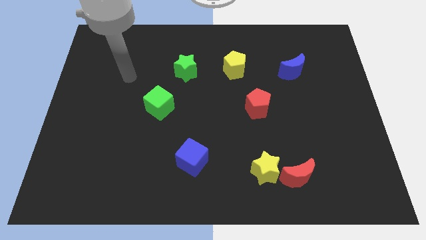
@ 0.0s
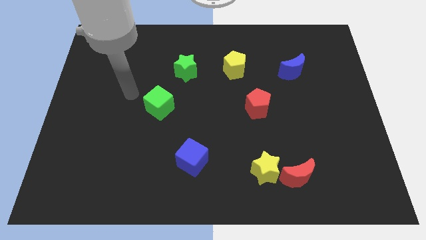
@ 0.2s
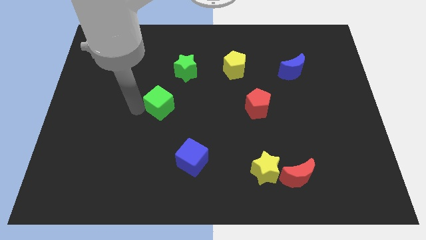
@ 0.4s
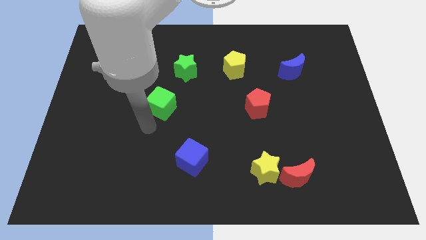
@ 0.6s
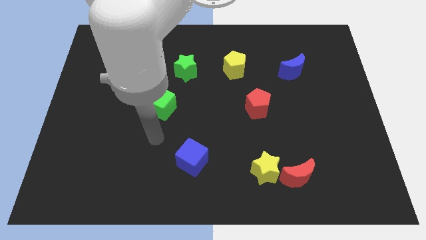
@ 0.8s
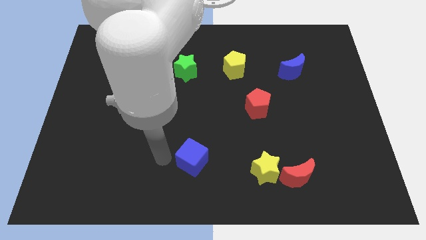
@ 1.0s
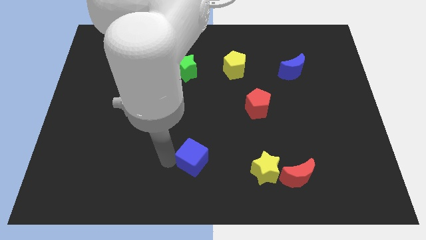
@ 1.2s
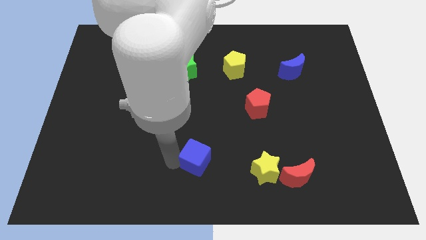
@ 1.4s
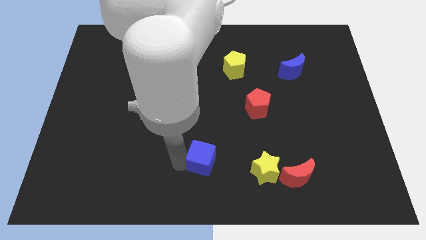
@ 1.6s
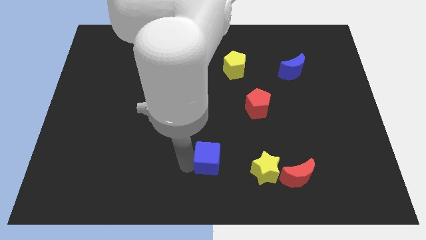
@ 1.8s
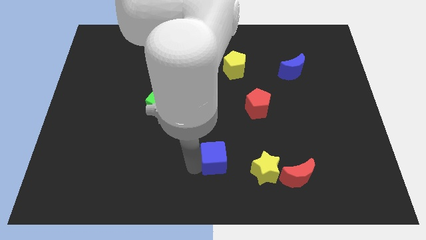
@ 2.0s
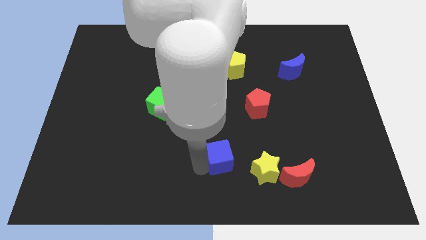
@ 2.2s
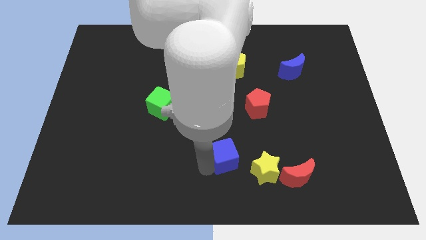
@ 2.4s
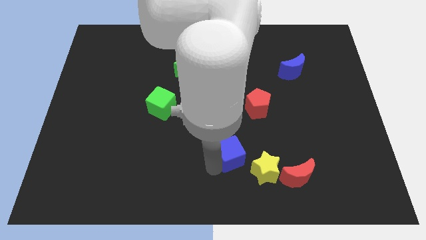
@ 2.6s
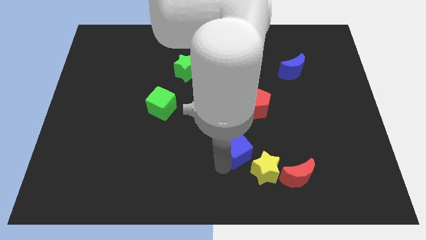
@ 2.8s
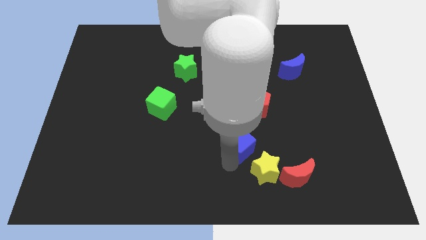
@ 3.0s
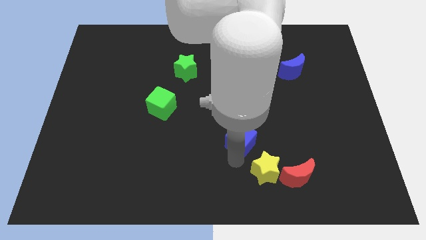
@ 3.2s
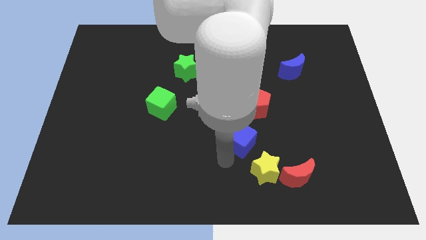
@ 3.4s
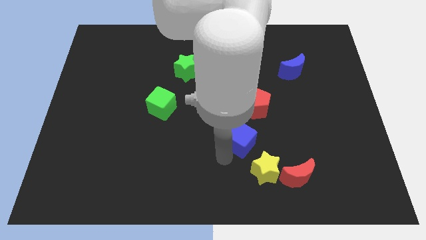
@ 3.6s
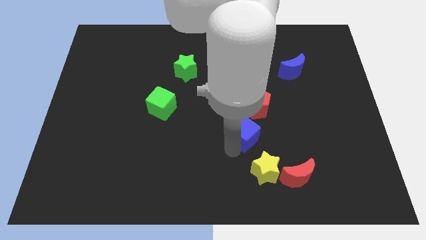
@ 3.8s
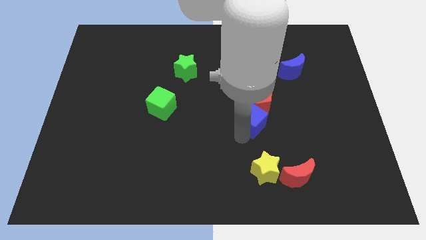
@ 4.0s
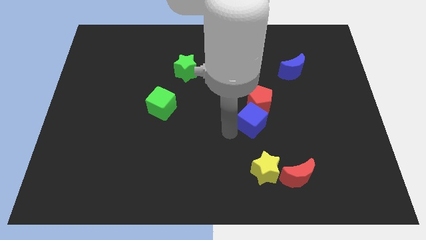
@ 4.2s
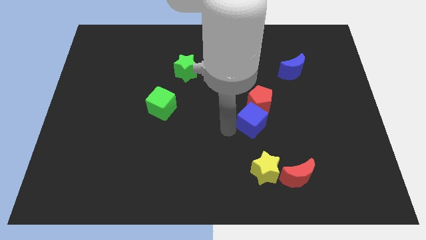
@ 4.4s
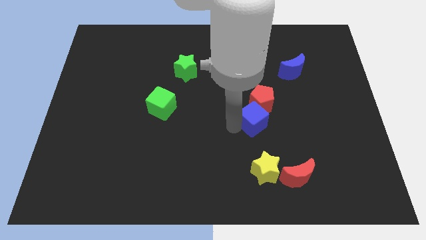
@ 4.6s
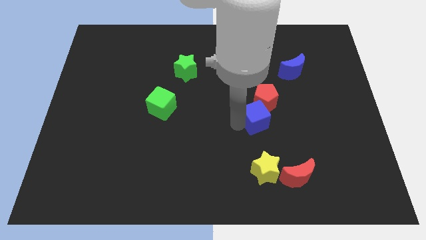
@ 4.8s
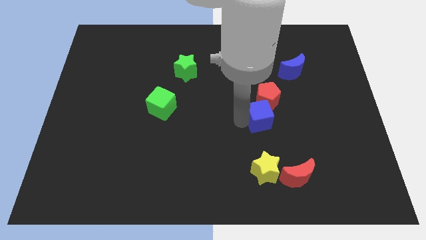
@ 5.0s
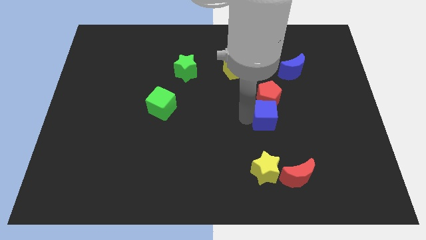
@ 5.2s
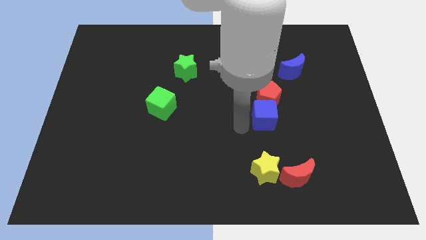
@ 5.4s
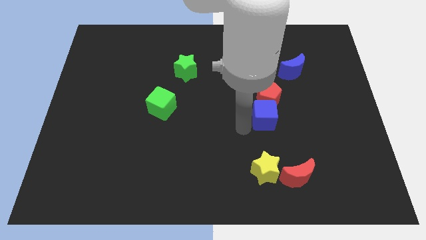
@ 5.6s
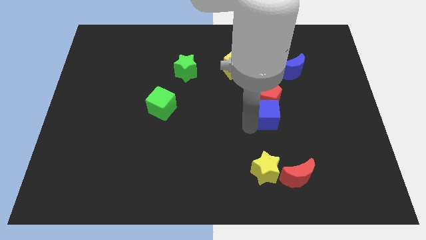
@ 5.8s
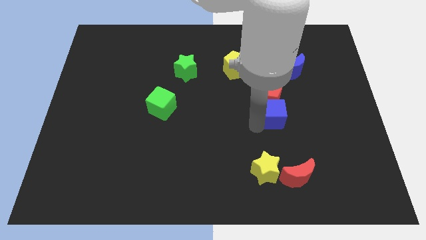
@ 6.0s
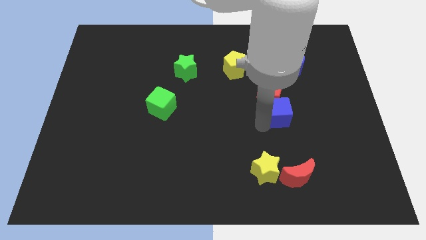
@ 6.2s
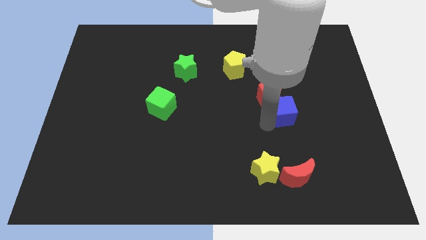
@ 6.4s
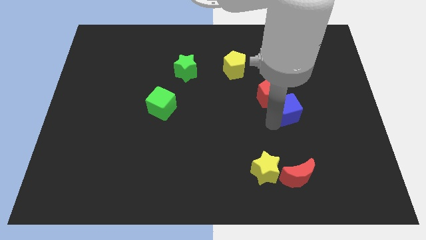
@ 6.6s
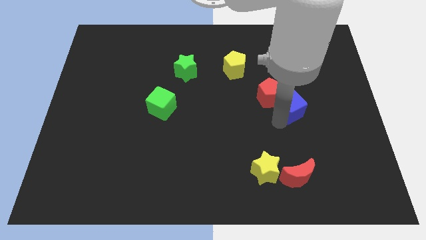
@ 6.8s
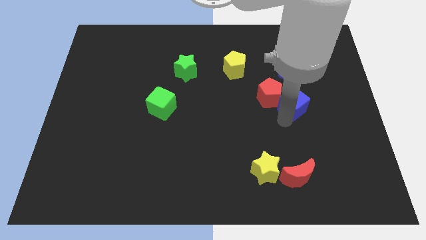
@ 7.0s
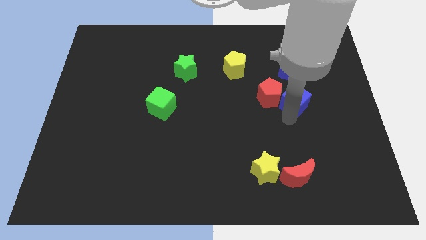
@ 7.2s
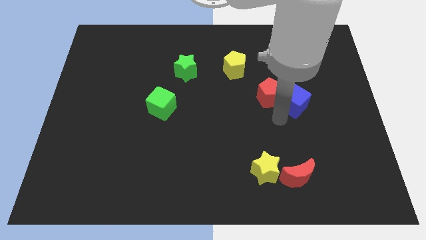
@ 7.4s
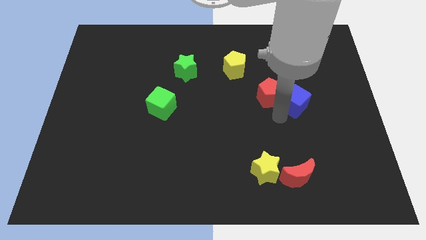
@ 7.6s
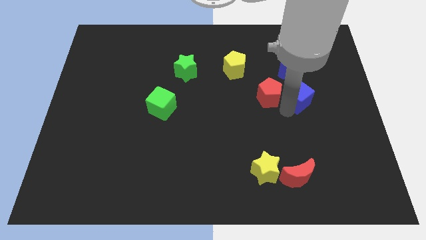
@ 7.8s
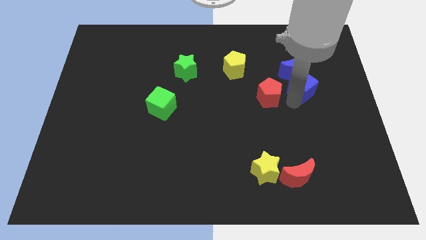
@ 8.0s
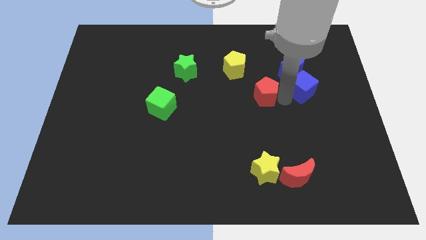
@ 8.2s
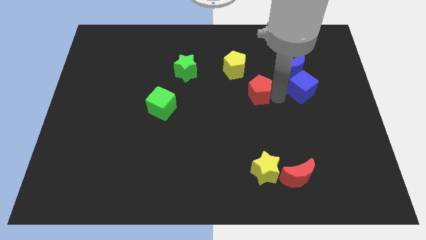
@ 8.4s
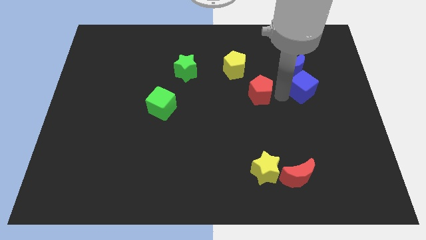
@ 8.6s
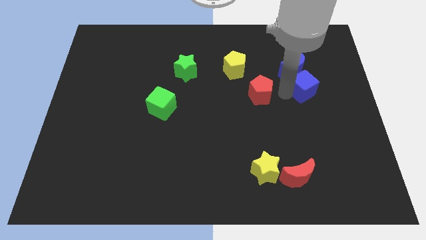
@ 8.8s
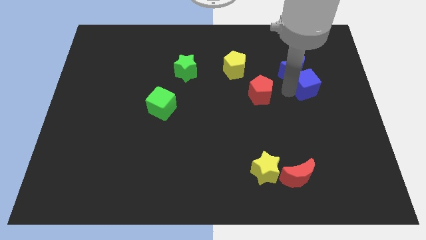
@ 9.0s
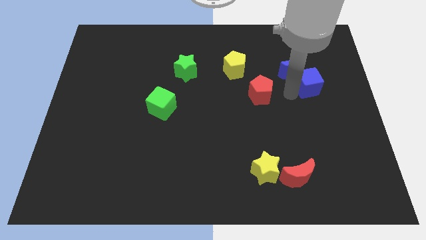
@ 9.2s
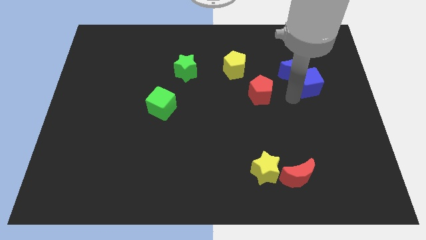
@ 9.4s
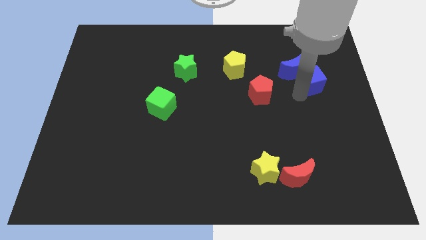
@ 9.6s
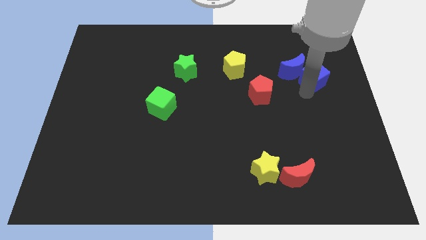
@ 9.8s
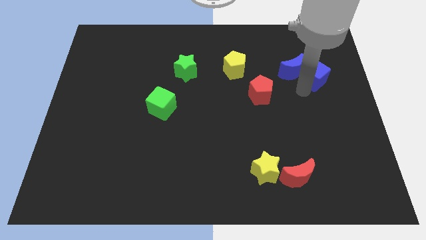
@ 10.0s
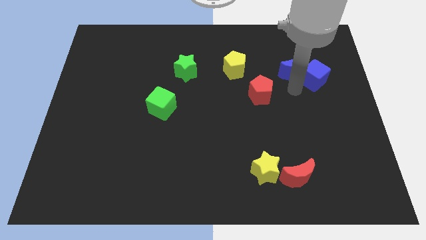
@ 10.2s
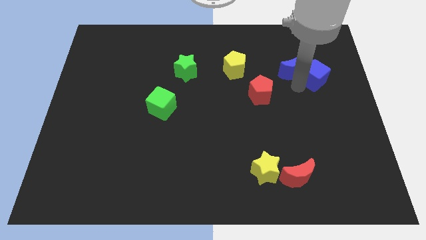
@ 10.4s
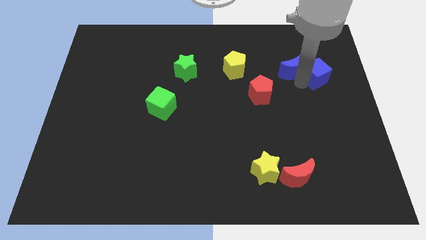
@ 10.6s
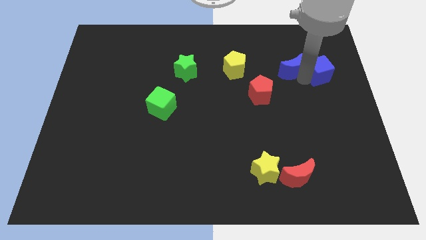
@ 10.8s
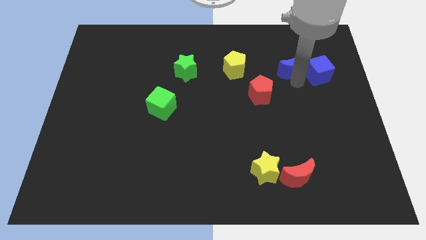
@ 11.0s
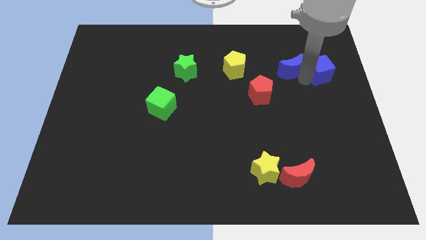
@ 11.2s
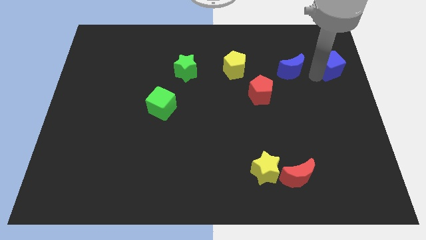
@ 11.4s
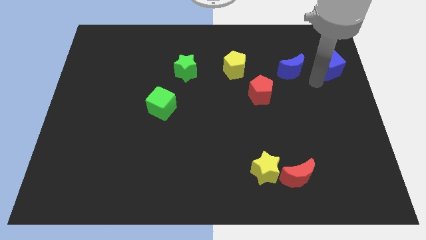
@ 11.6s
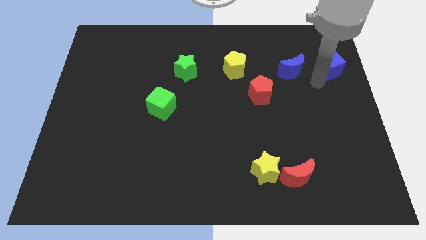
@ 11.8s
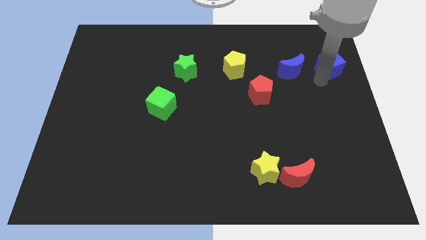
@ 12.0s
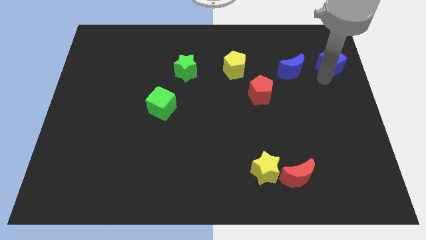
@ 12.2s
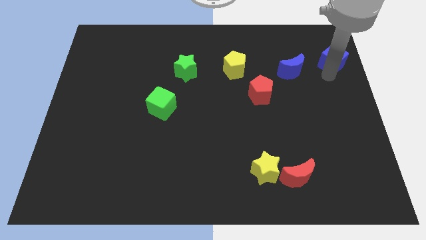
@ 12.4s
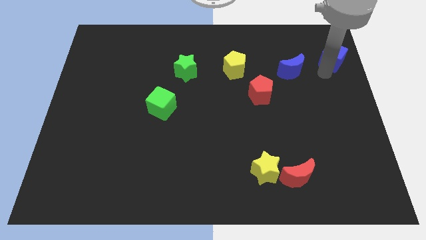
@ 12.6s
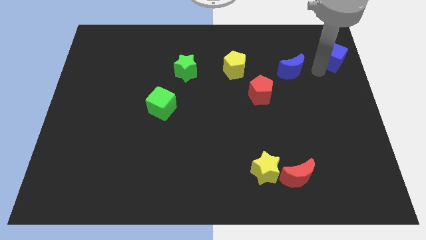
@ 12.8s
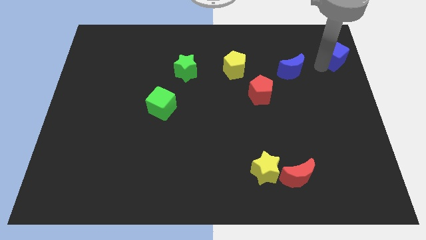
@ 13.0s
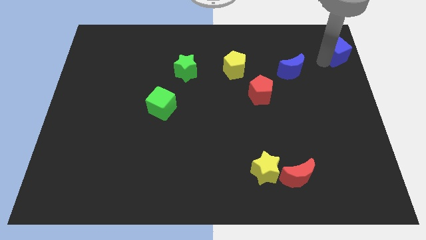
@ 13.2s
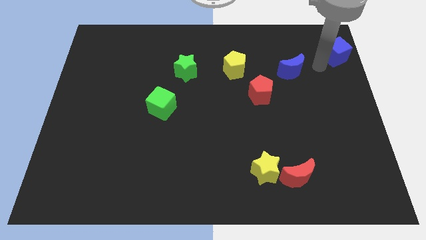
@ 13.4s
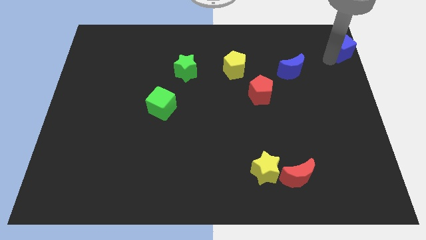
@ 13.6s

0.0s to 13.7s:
move the blue cube to the top right corner
